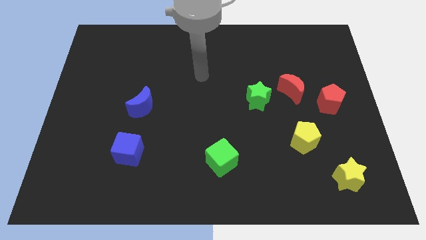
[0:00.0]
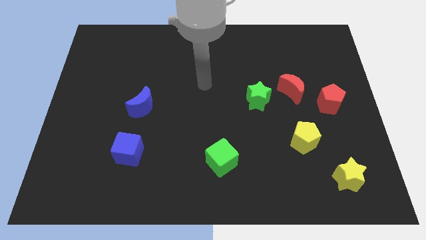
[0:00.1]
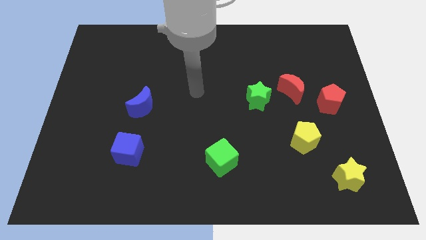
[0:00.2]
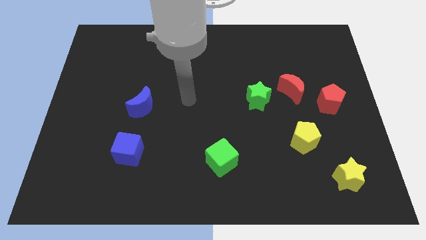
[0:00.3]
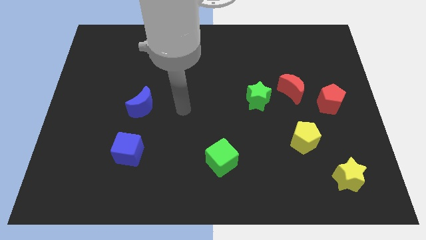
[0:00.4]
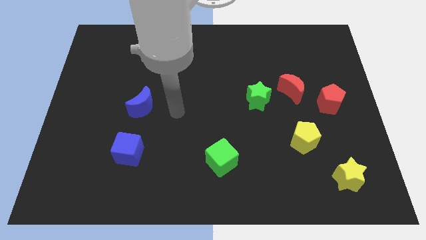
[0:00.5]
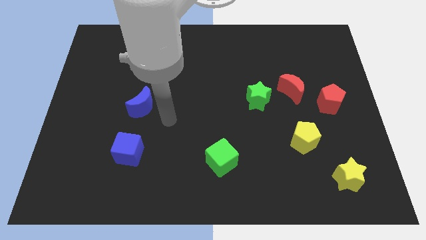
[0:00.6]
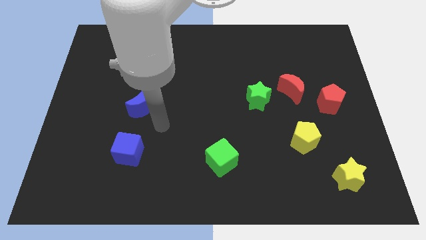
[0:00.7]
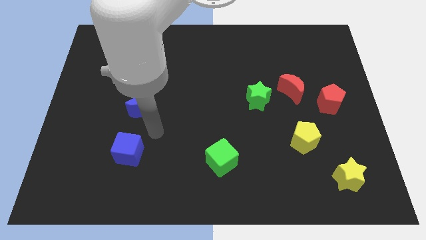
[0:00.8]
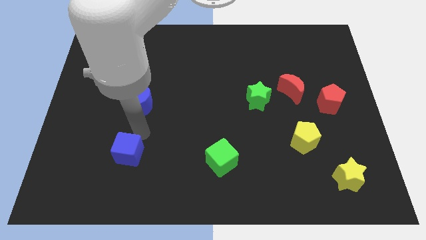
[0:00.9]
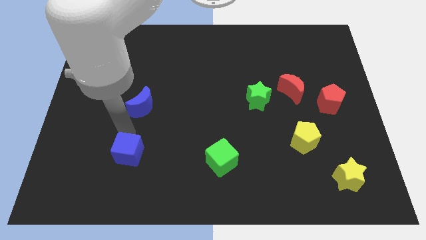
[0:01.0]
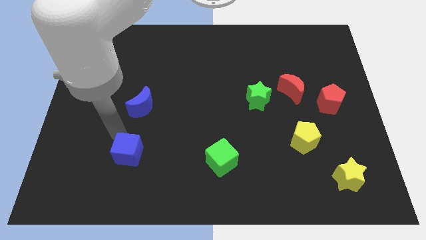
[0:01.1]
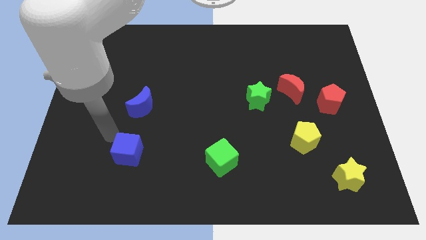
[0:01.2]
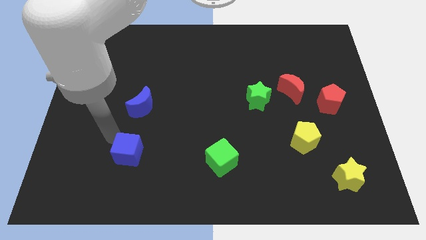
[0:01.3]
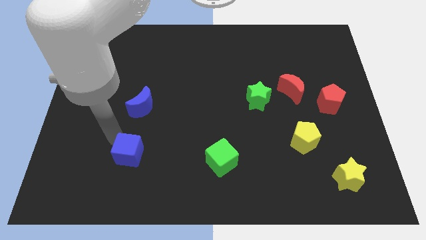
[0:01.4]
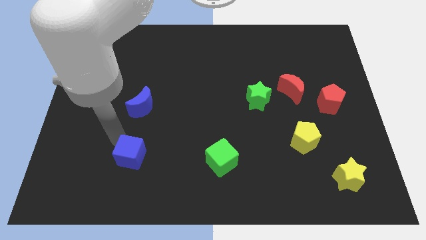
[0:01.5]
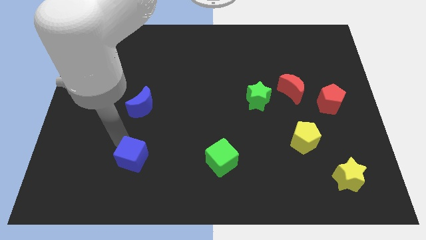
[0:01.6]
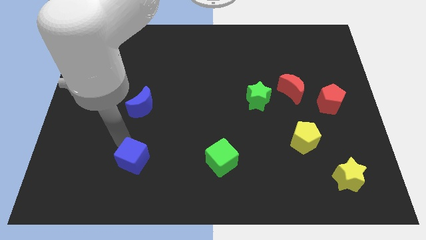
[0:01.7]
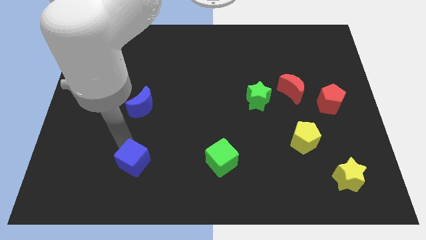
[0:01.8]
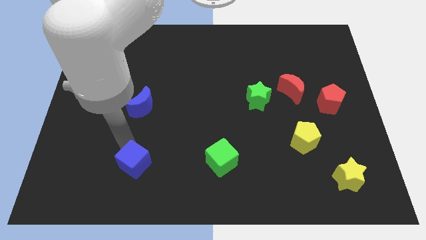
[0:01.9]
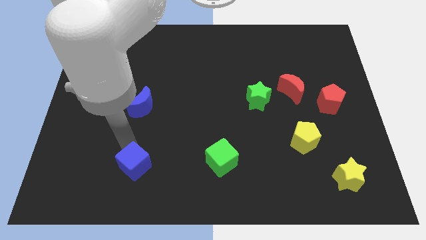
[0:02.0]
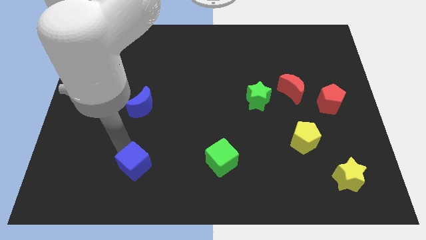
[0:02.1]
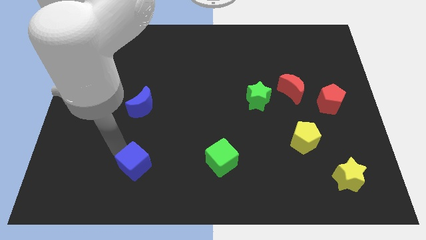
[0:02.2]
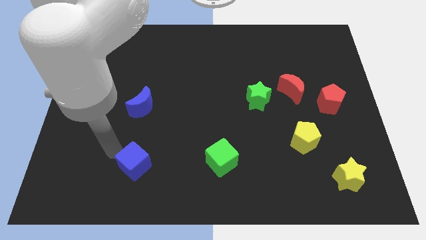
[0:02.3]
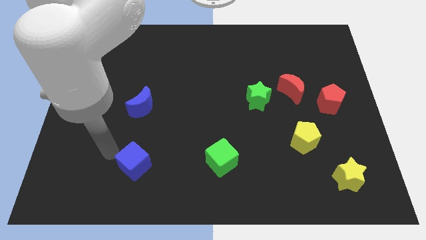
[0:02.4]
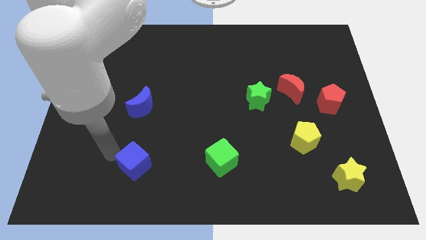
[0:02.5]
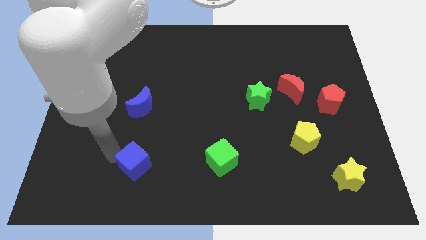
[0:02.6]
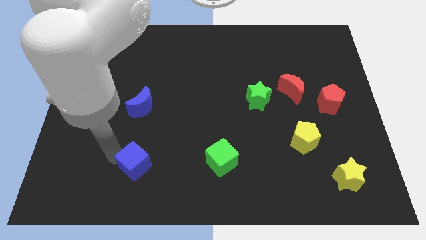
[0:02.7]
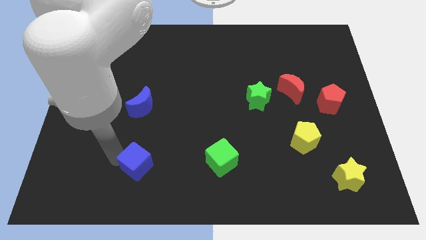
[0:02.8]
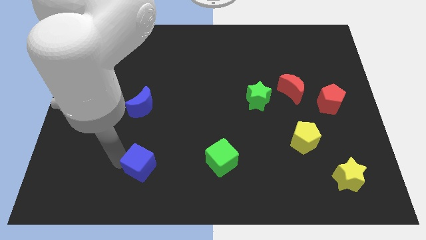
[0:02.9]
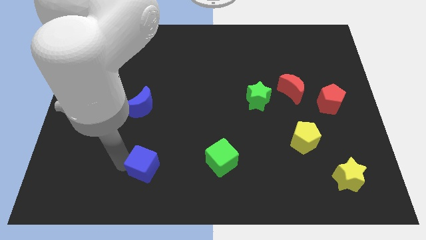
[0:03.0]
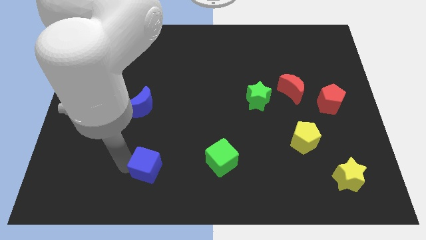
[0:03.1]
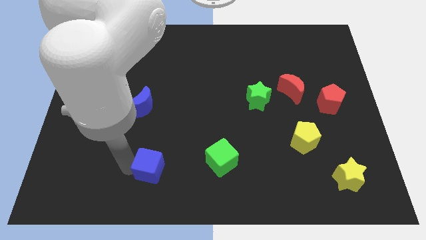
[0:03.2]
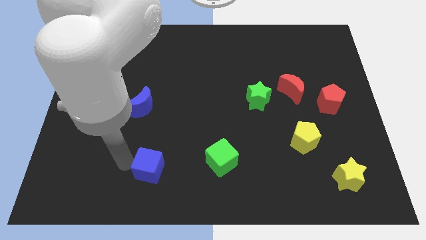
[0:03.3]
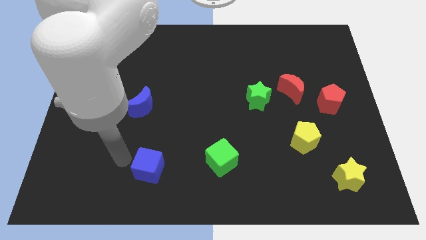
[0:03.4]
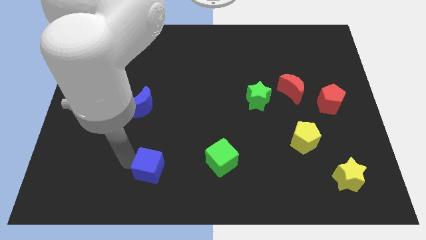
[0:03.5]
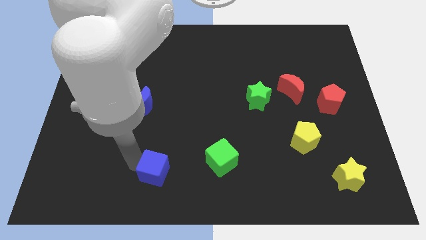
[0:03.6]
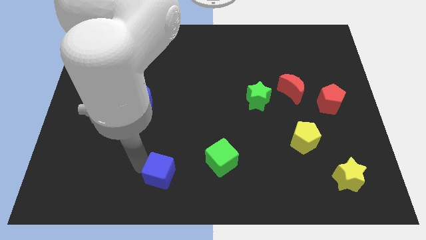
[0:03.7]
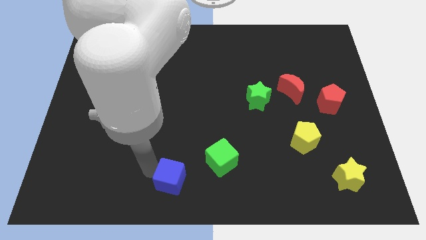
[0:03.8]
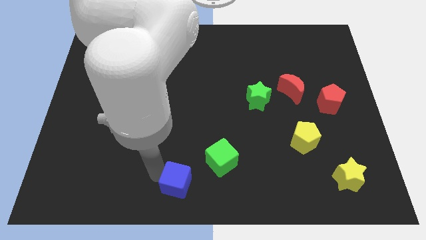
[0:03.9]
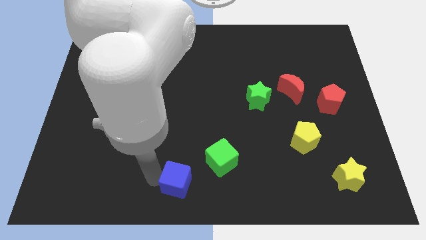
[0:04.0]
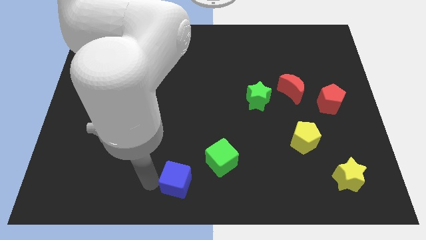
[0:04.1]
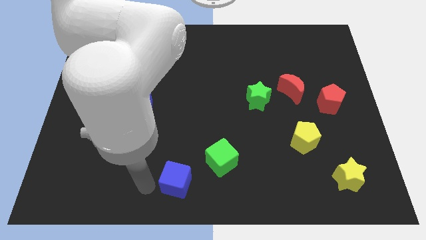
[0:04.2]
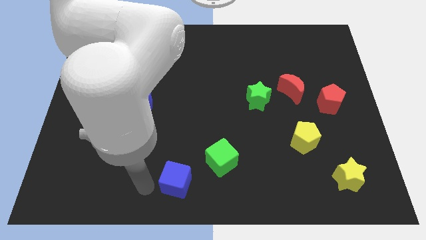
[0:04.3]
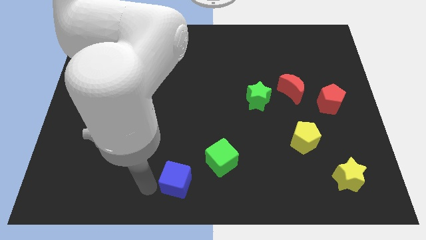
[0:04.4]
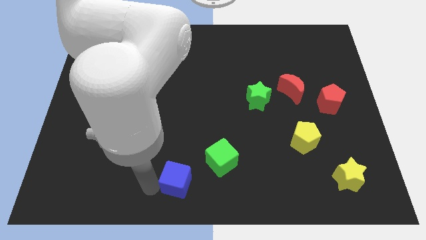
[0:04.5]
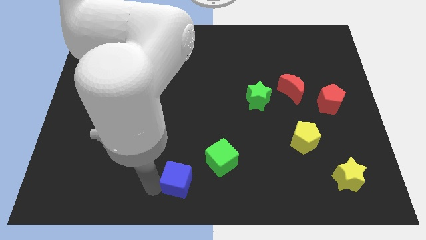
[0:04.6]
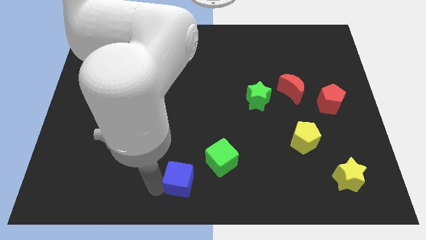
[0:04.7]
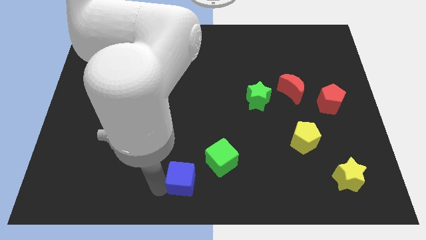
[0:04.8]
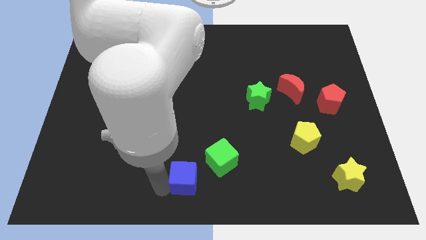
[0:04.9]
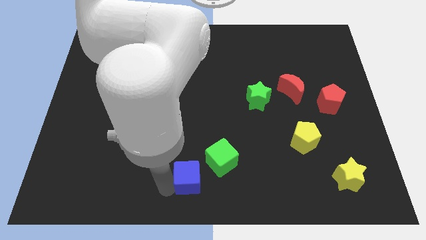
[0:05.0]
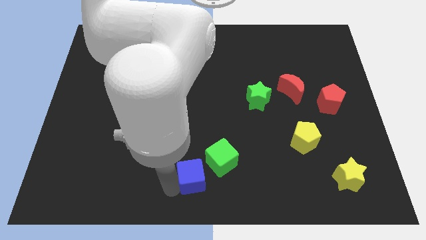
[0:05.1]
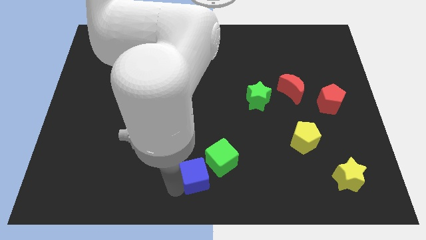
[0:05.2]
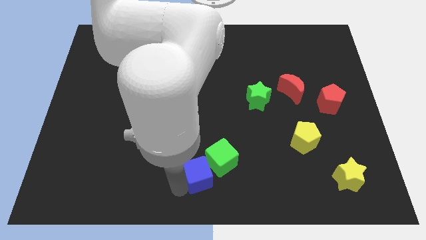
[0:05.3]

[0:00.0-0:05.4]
put the blue cube to the green cube

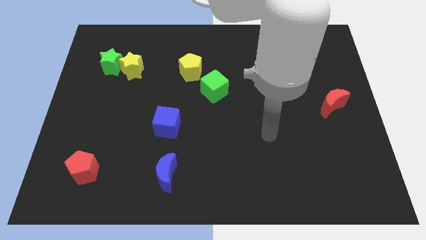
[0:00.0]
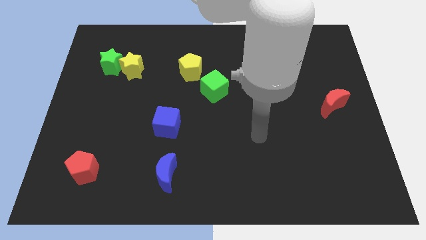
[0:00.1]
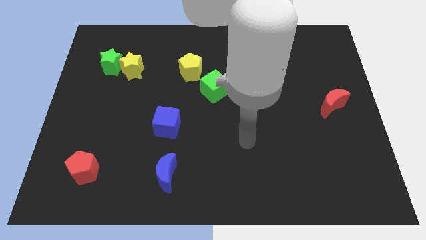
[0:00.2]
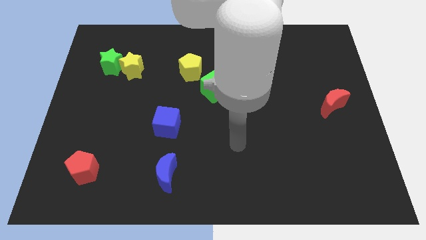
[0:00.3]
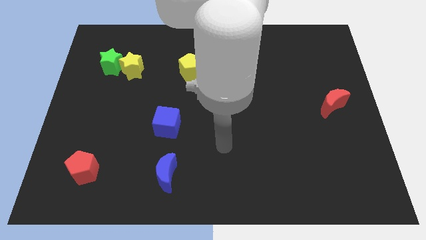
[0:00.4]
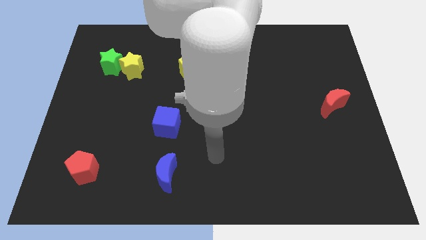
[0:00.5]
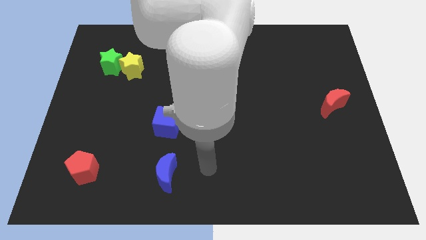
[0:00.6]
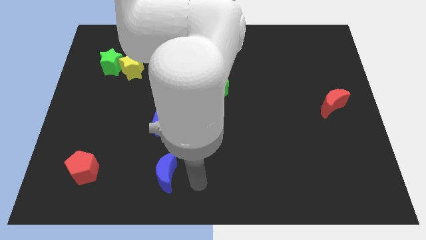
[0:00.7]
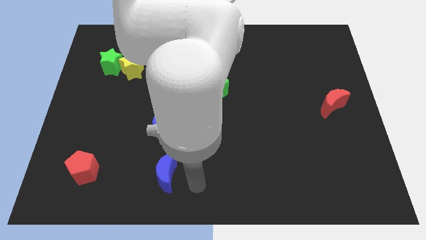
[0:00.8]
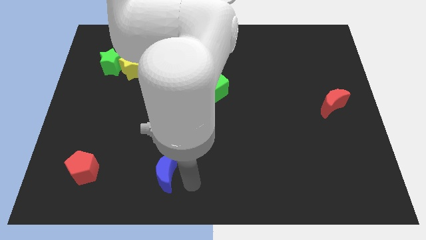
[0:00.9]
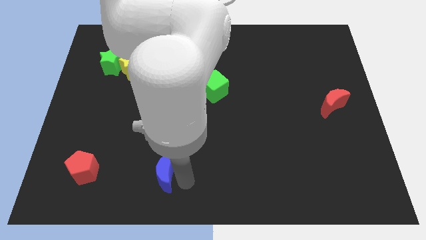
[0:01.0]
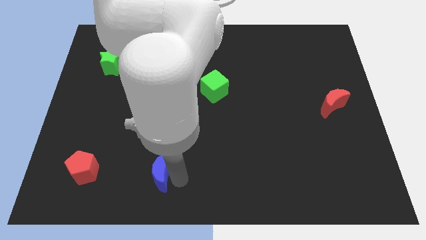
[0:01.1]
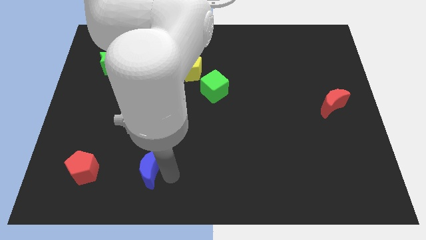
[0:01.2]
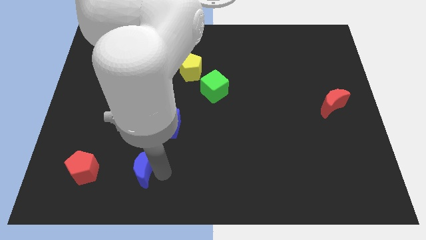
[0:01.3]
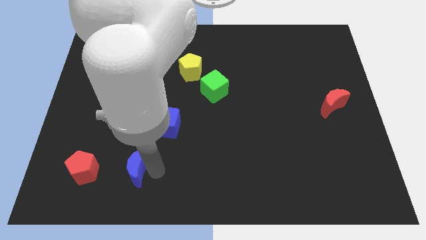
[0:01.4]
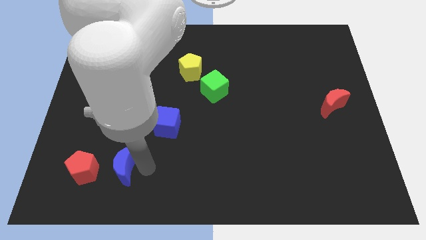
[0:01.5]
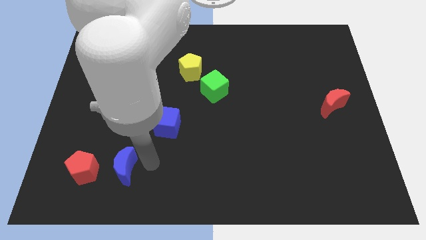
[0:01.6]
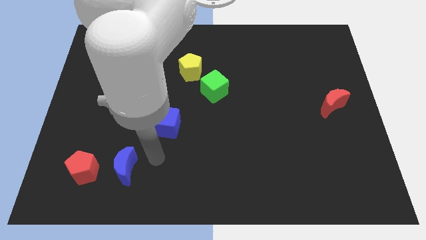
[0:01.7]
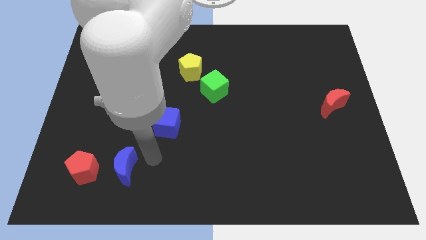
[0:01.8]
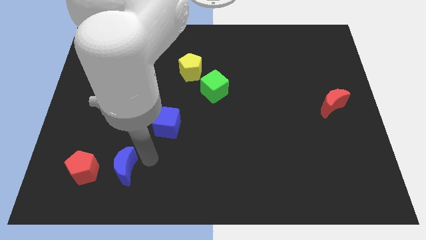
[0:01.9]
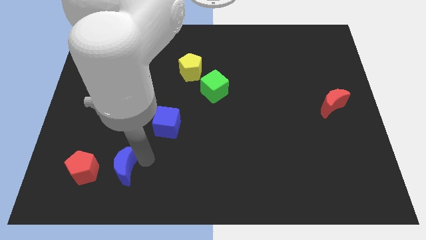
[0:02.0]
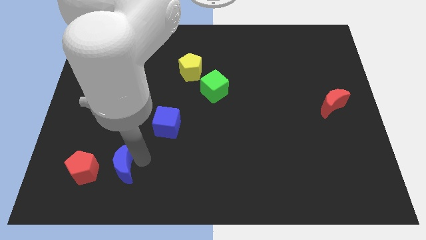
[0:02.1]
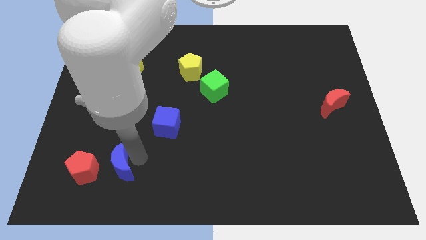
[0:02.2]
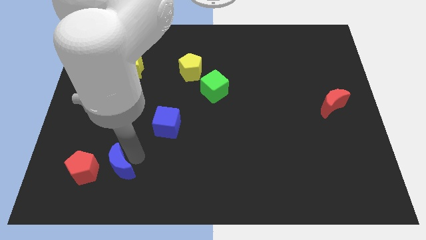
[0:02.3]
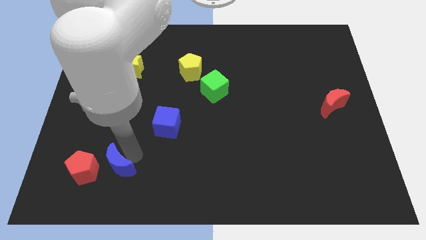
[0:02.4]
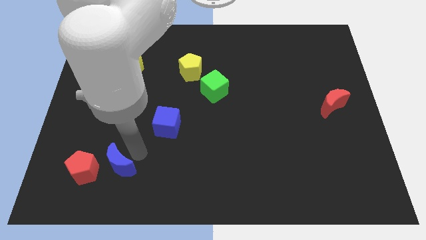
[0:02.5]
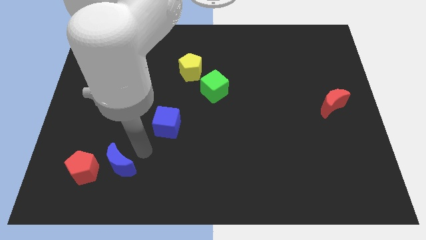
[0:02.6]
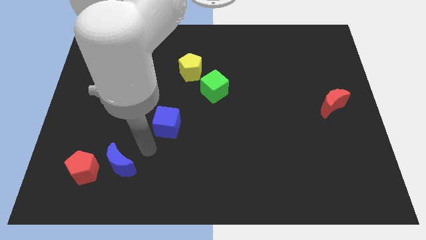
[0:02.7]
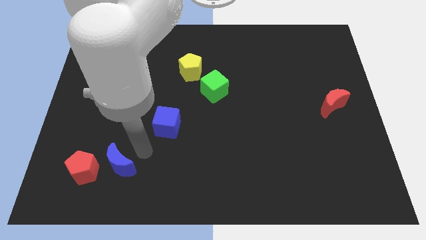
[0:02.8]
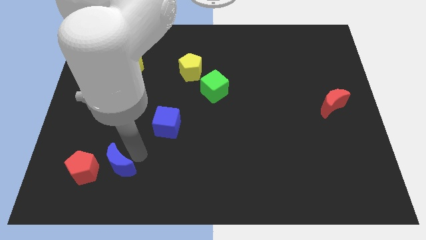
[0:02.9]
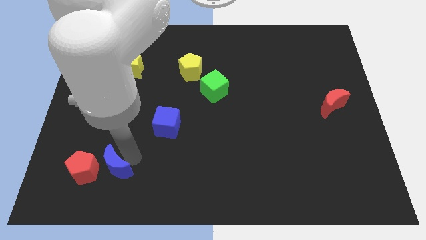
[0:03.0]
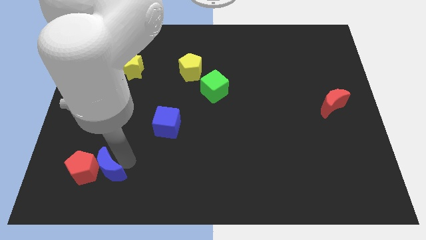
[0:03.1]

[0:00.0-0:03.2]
push the blue moon towards the red pentagon
